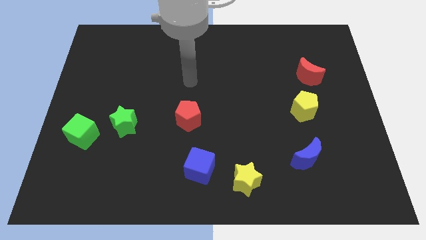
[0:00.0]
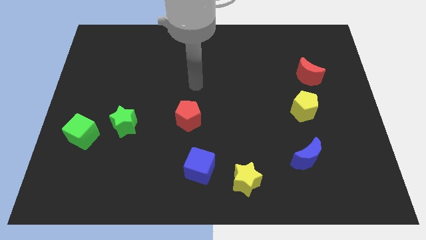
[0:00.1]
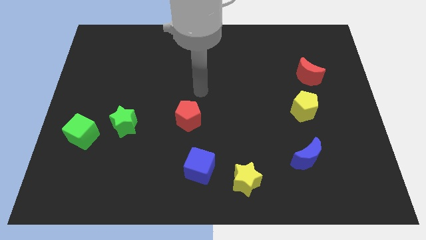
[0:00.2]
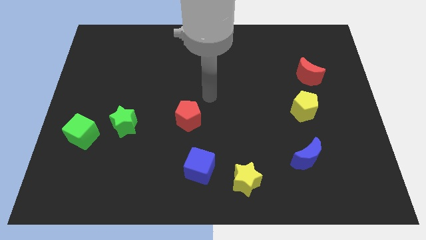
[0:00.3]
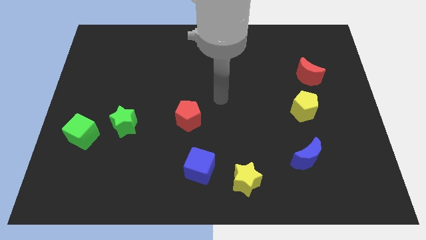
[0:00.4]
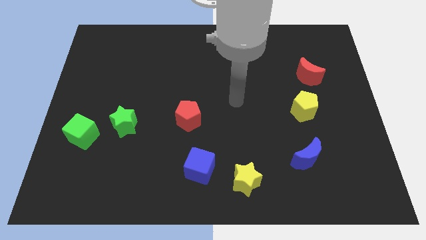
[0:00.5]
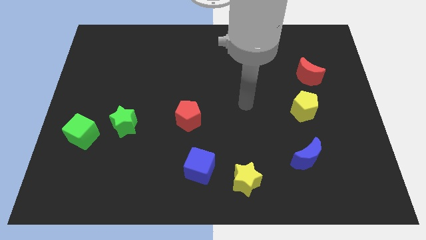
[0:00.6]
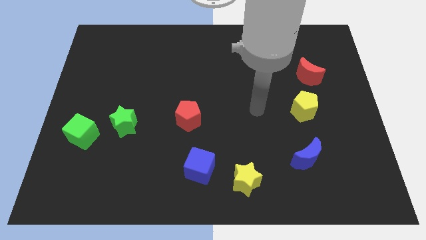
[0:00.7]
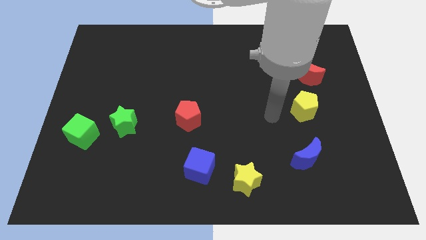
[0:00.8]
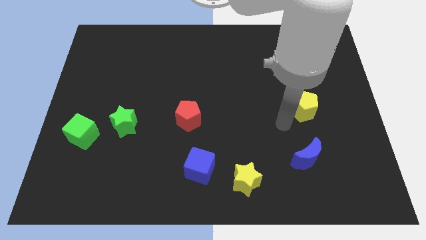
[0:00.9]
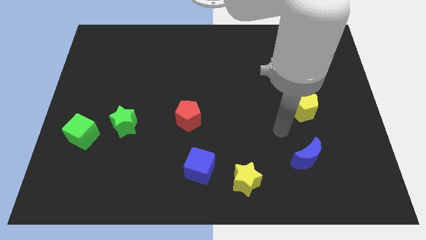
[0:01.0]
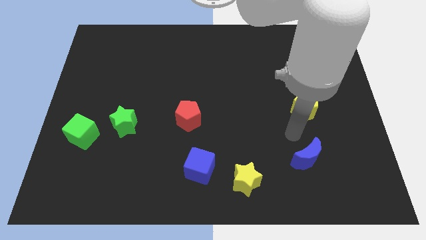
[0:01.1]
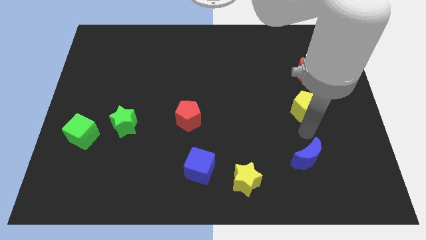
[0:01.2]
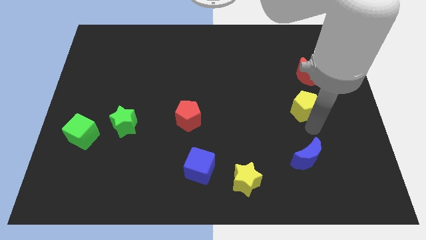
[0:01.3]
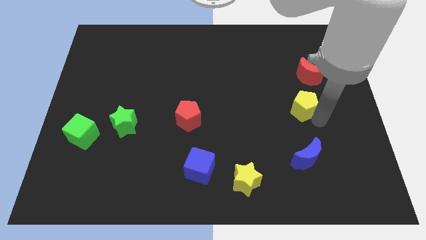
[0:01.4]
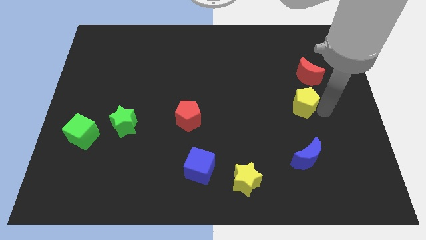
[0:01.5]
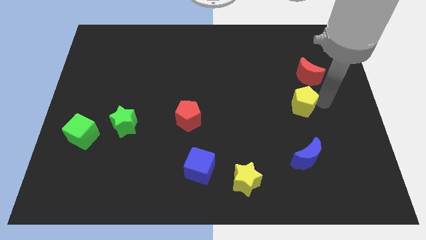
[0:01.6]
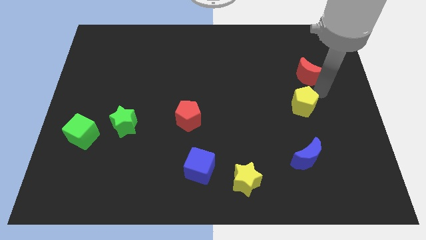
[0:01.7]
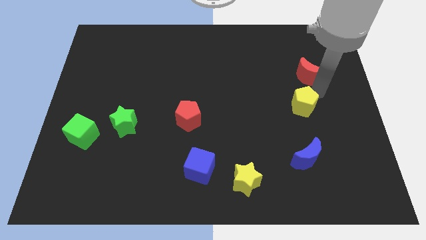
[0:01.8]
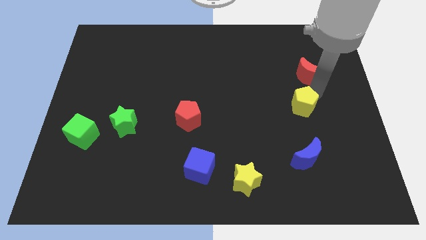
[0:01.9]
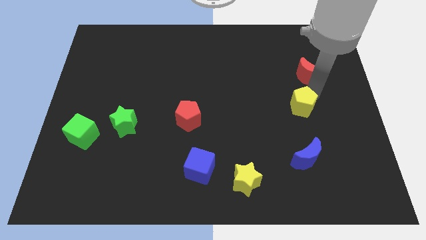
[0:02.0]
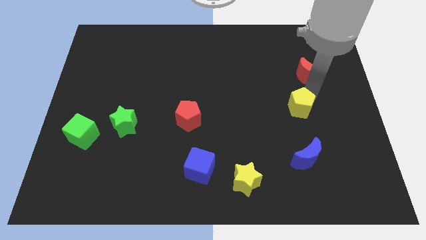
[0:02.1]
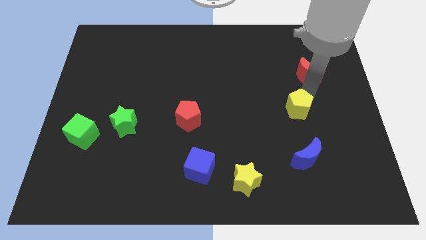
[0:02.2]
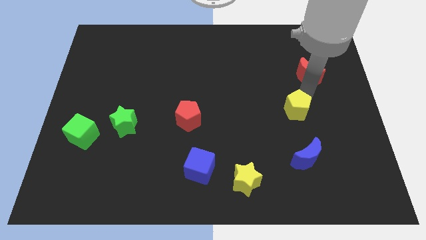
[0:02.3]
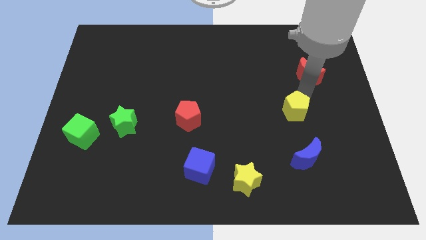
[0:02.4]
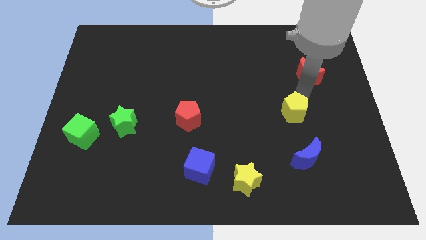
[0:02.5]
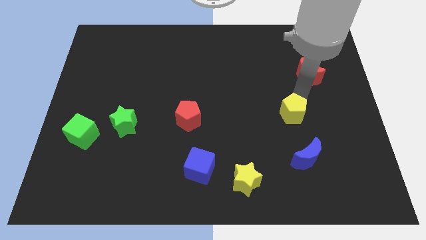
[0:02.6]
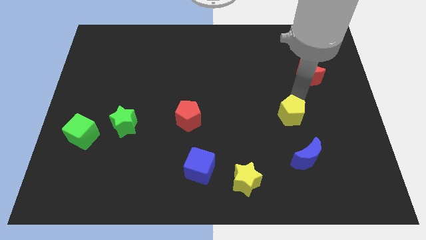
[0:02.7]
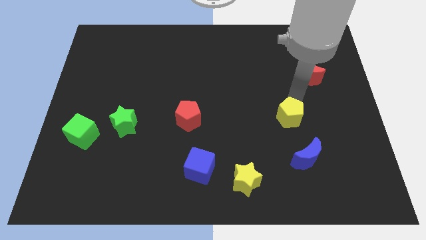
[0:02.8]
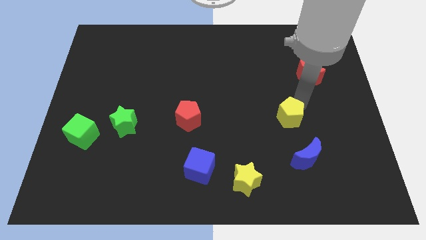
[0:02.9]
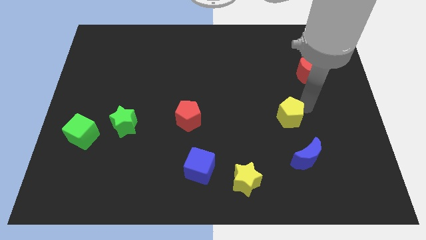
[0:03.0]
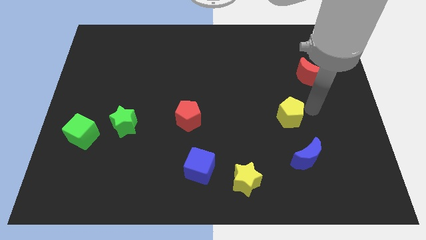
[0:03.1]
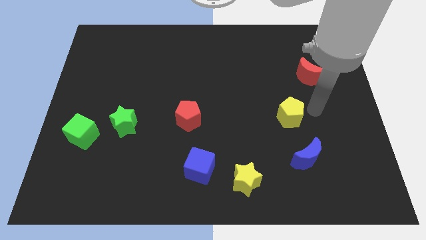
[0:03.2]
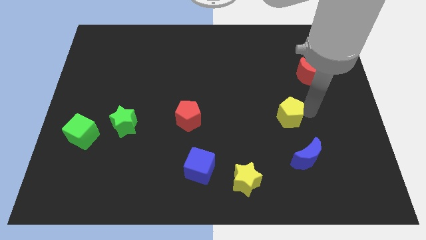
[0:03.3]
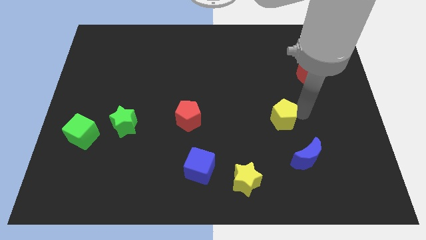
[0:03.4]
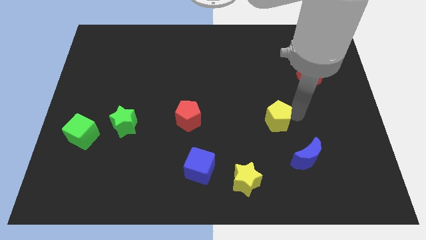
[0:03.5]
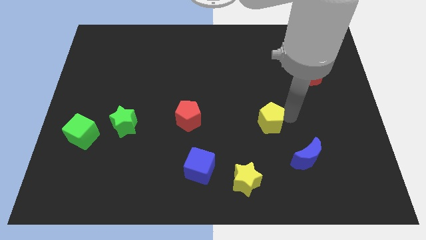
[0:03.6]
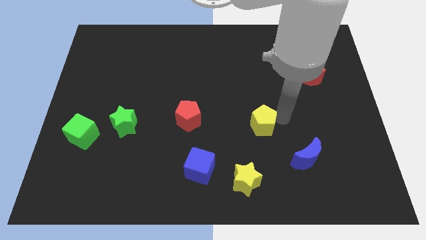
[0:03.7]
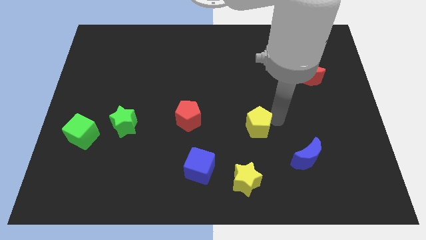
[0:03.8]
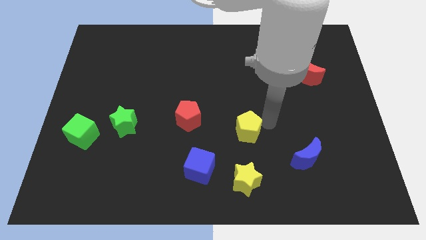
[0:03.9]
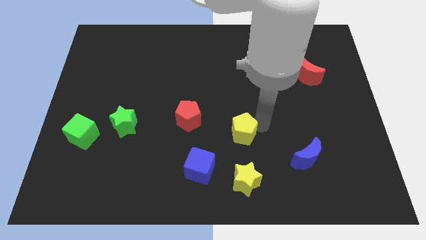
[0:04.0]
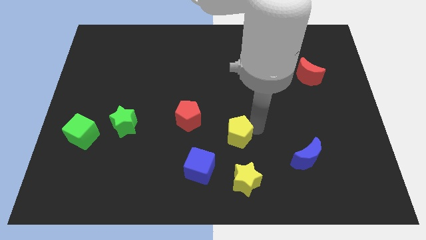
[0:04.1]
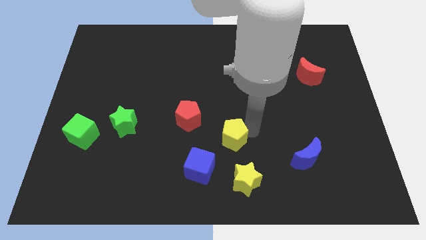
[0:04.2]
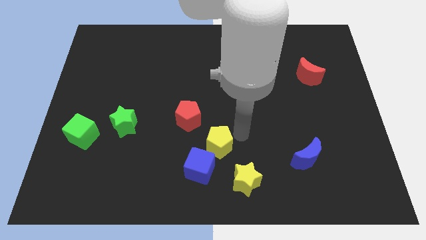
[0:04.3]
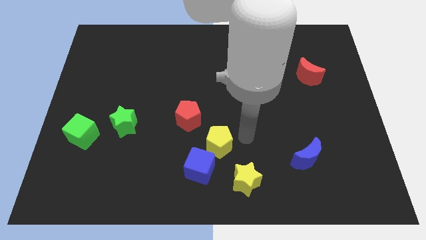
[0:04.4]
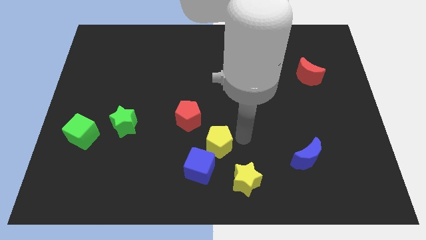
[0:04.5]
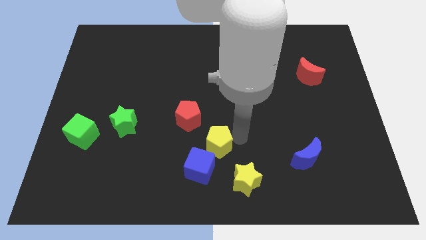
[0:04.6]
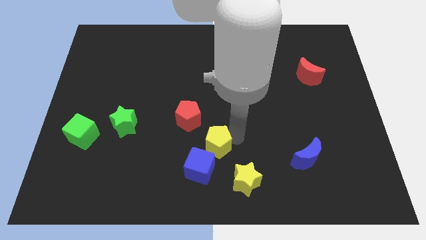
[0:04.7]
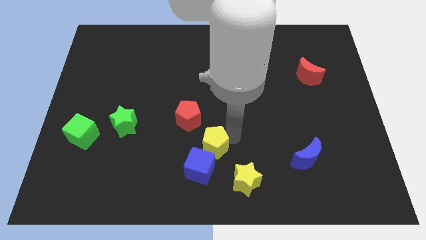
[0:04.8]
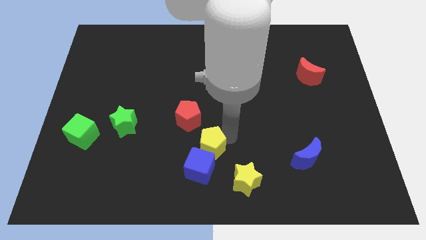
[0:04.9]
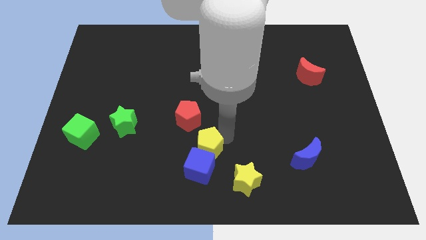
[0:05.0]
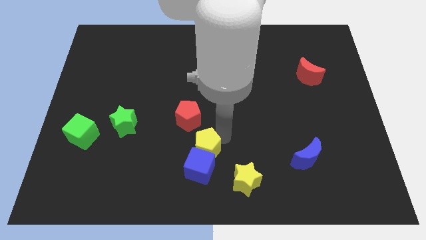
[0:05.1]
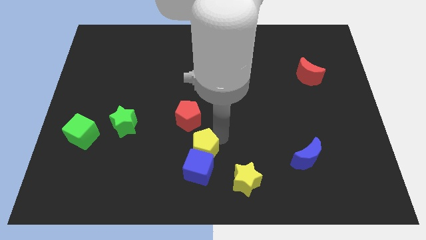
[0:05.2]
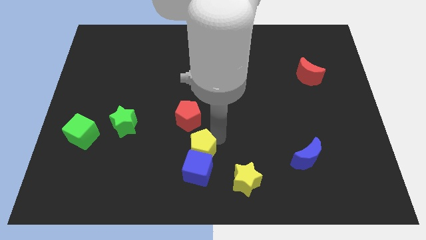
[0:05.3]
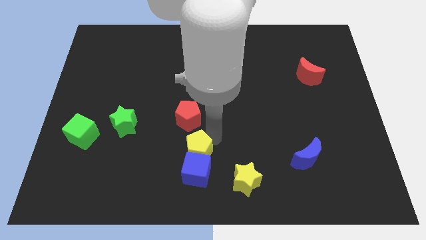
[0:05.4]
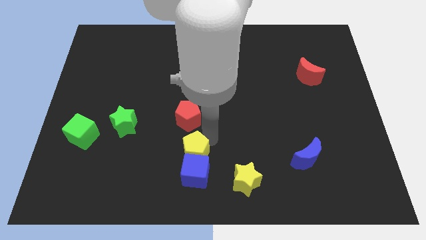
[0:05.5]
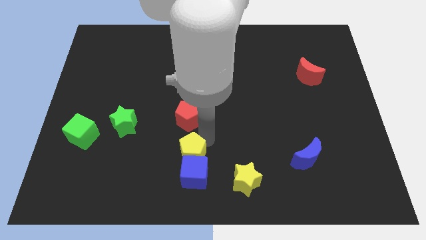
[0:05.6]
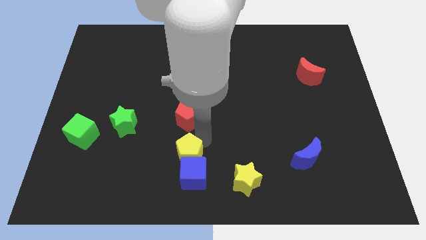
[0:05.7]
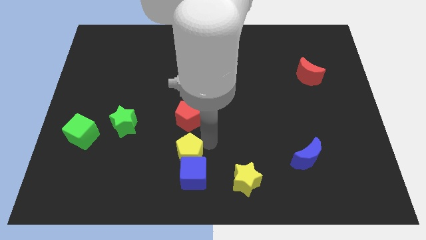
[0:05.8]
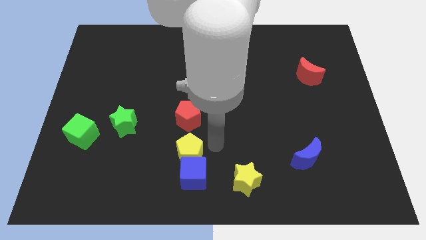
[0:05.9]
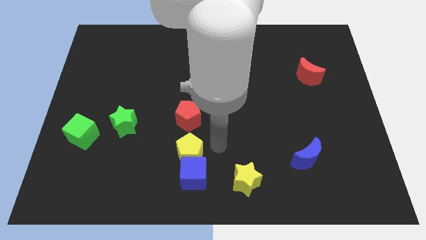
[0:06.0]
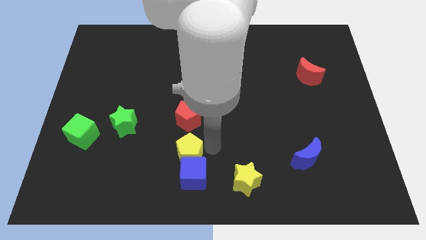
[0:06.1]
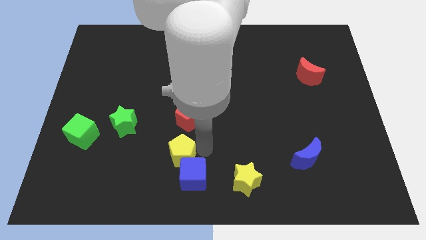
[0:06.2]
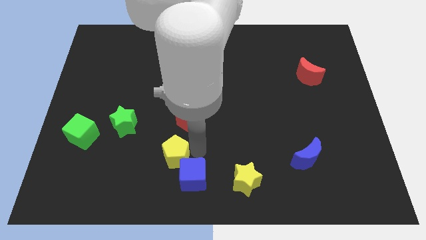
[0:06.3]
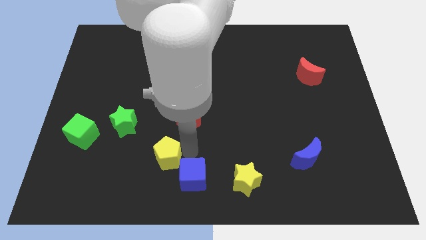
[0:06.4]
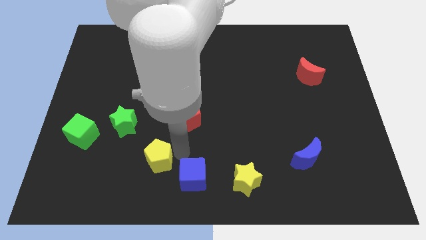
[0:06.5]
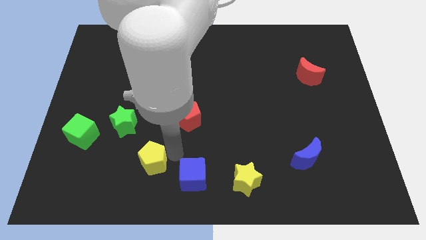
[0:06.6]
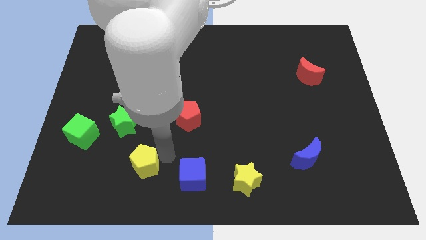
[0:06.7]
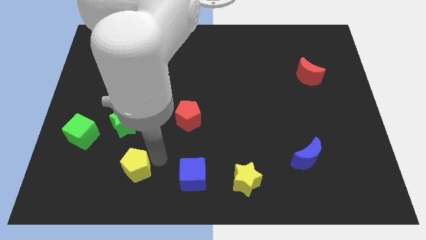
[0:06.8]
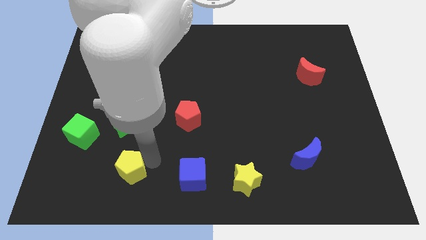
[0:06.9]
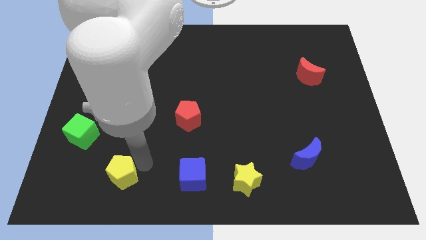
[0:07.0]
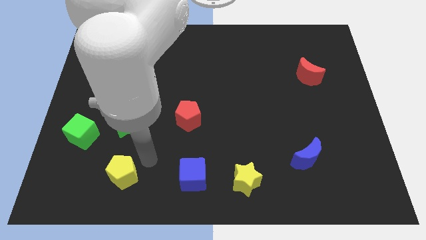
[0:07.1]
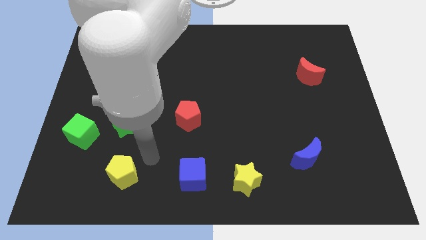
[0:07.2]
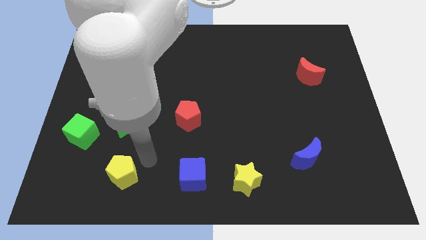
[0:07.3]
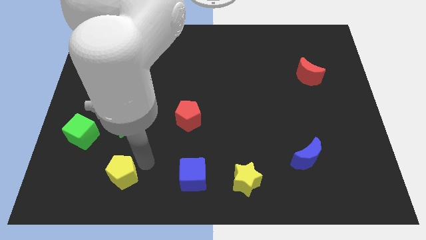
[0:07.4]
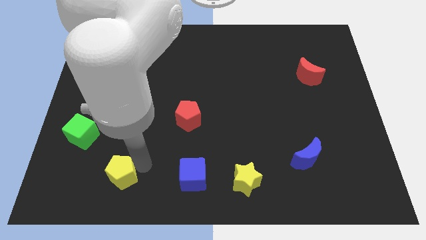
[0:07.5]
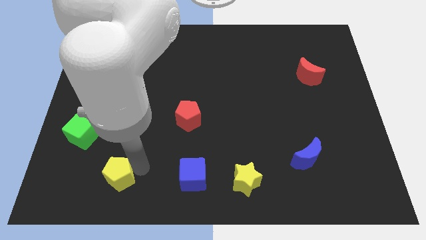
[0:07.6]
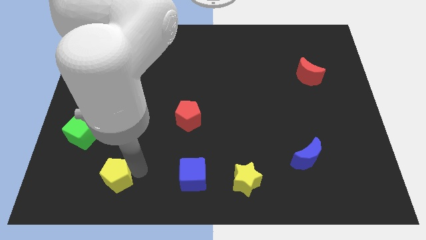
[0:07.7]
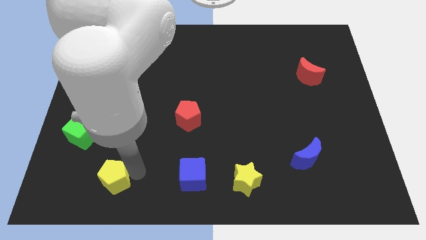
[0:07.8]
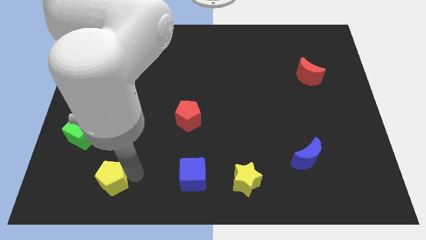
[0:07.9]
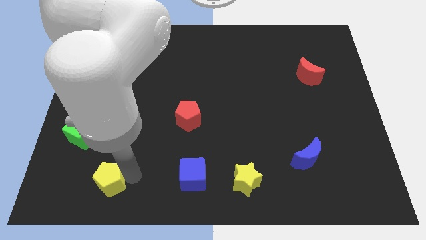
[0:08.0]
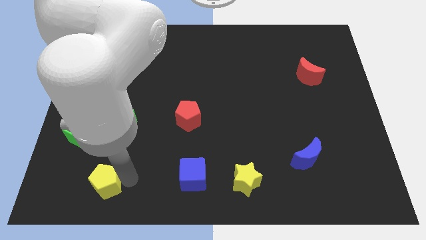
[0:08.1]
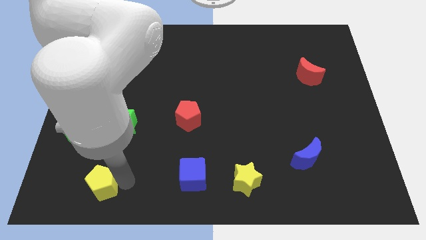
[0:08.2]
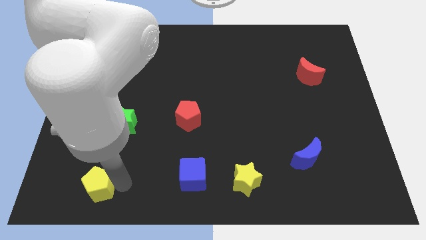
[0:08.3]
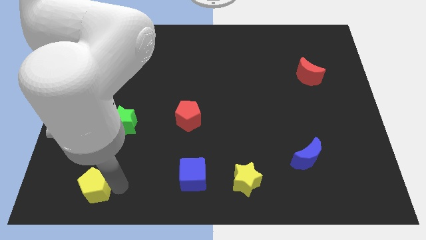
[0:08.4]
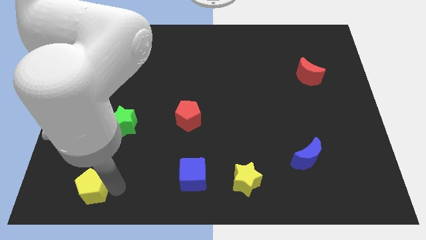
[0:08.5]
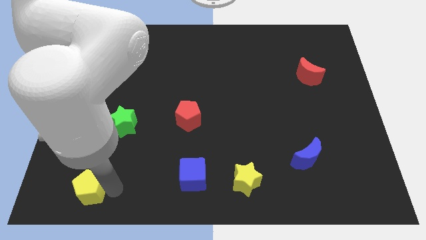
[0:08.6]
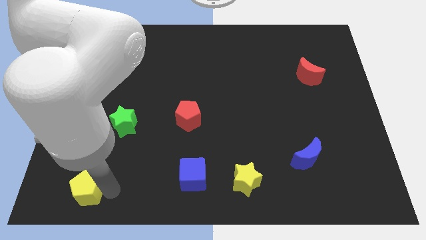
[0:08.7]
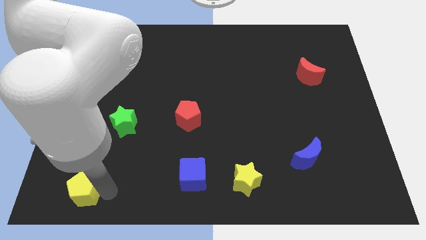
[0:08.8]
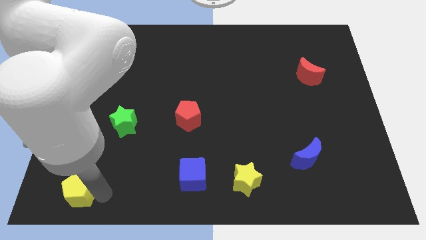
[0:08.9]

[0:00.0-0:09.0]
put the yellow pentagon to the bottom left corner
